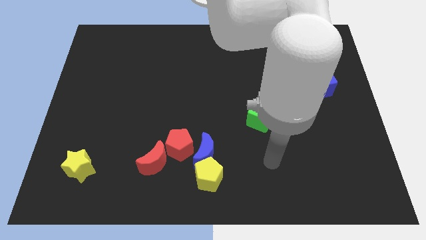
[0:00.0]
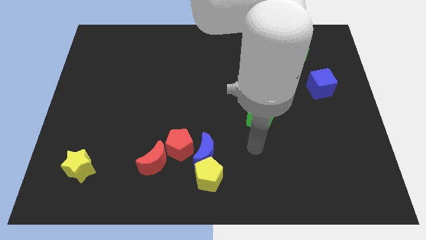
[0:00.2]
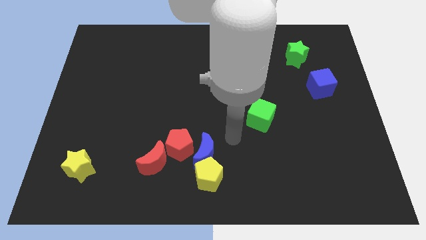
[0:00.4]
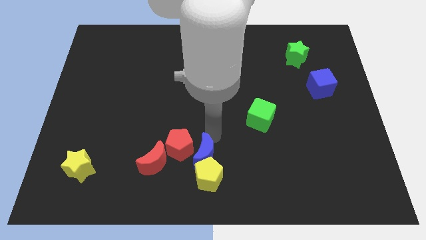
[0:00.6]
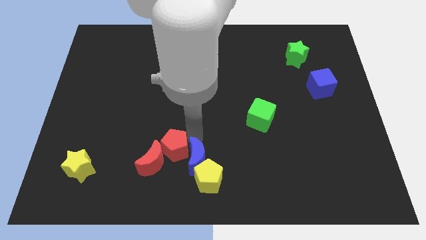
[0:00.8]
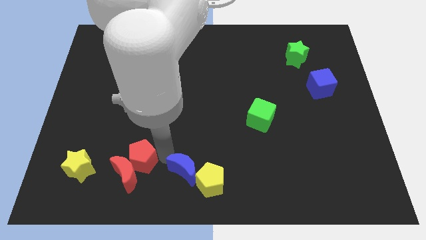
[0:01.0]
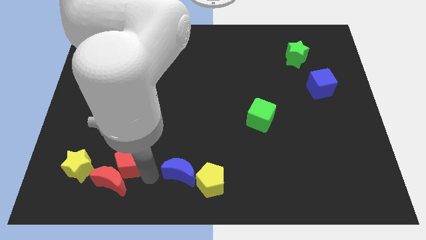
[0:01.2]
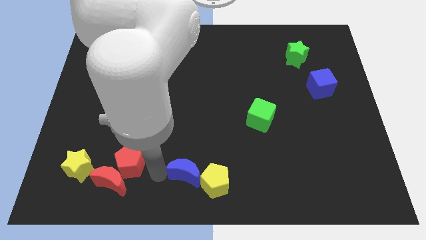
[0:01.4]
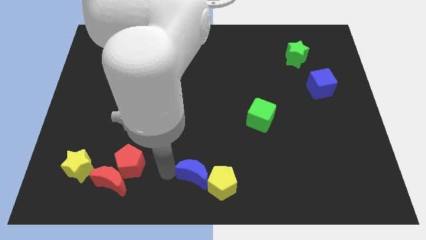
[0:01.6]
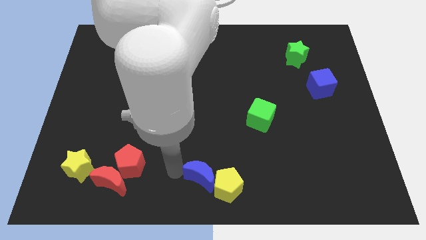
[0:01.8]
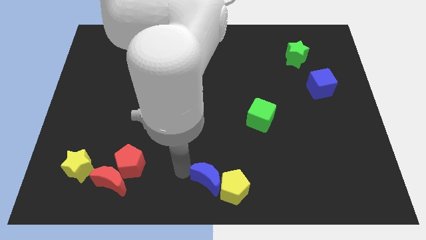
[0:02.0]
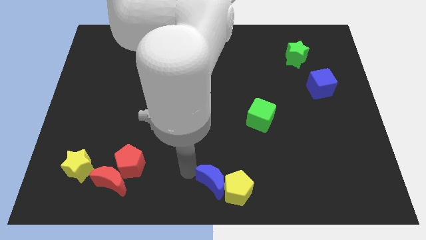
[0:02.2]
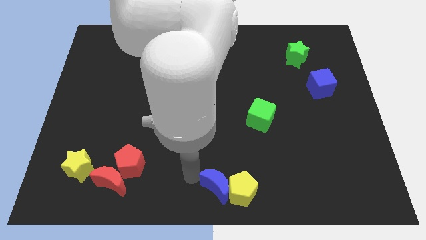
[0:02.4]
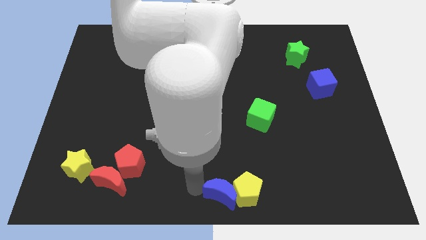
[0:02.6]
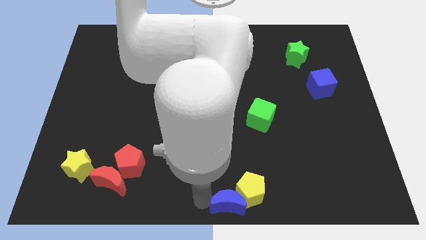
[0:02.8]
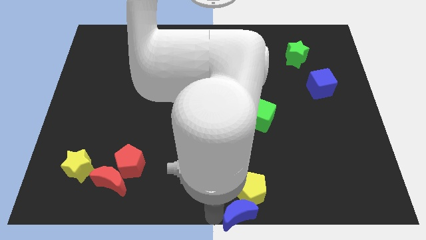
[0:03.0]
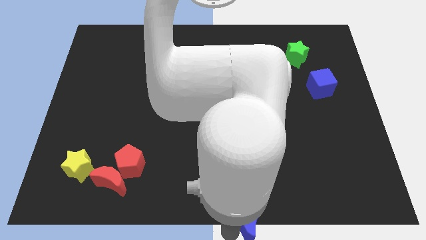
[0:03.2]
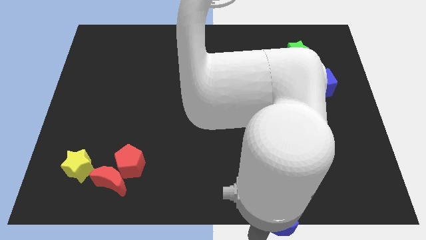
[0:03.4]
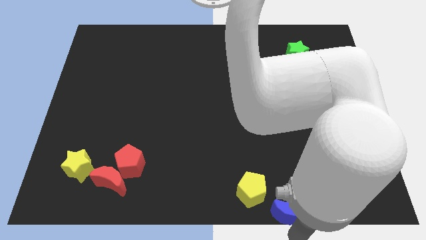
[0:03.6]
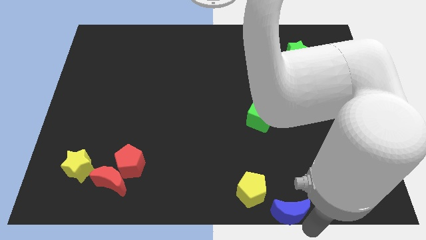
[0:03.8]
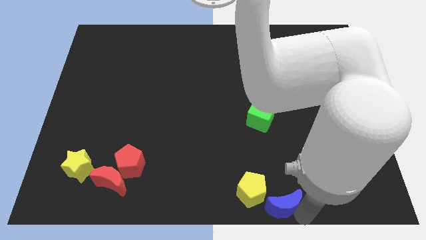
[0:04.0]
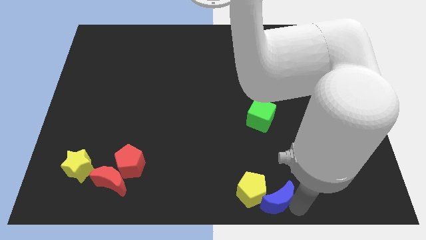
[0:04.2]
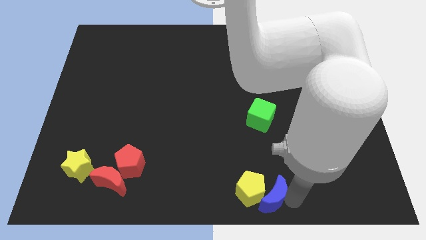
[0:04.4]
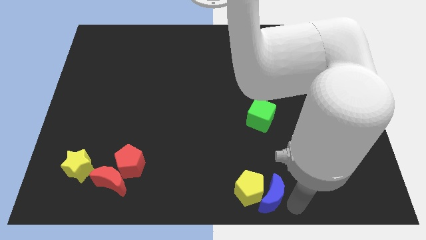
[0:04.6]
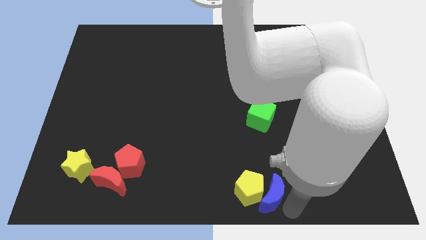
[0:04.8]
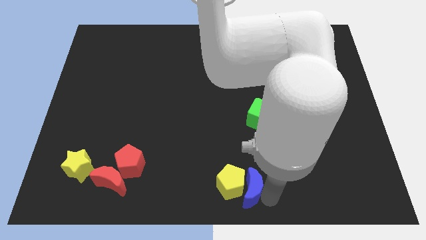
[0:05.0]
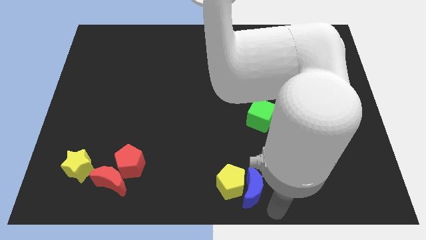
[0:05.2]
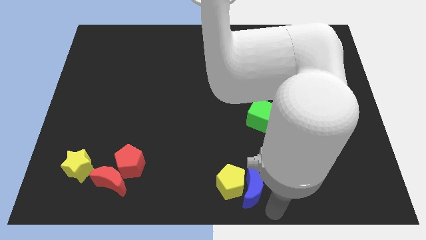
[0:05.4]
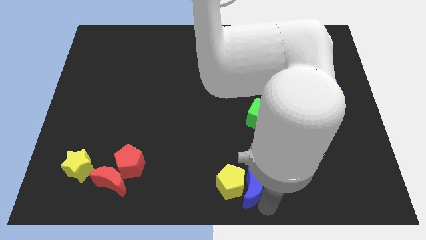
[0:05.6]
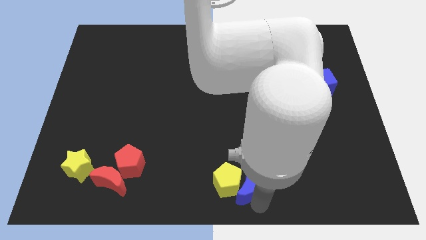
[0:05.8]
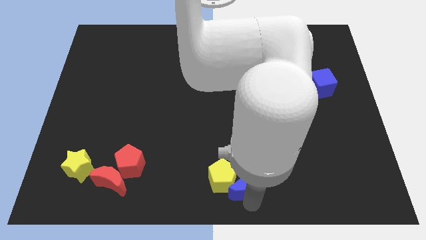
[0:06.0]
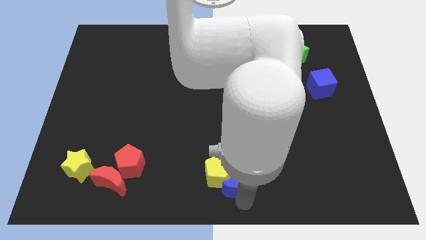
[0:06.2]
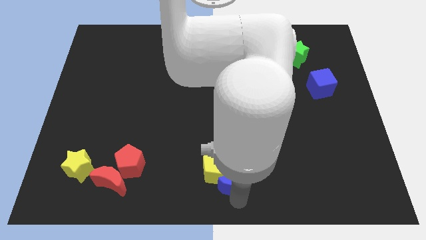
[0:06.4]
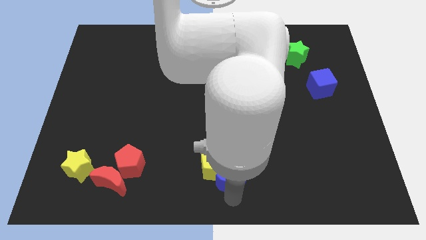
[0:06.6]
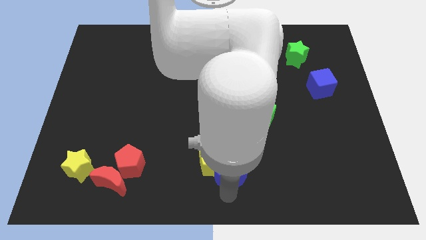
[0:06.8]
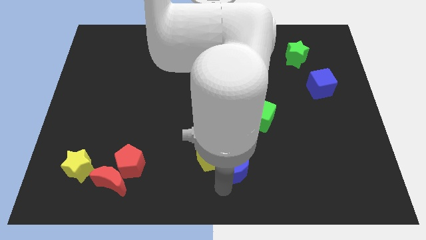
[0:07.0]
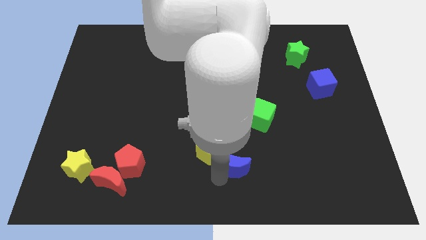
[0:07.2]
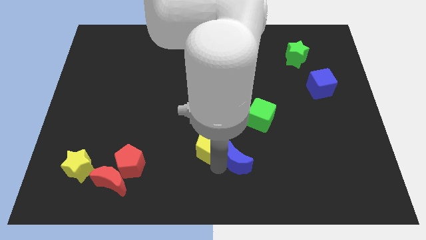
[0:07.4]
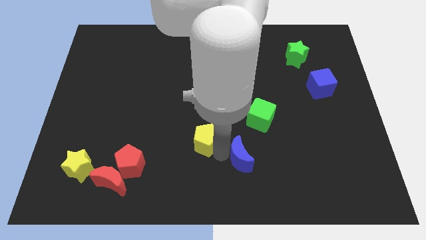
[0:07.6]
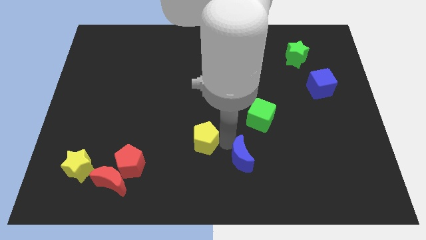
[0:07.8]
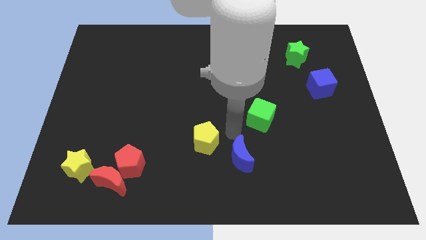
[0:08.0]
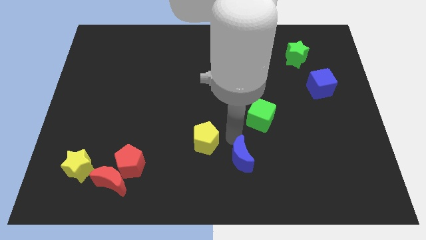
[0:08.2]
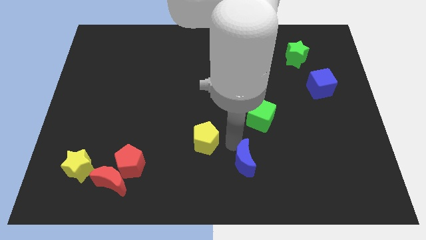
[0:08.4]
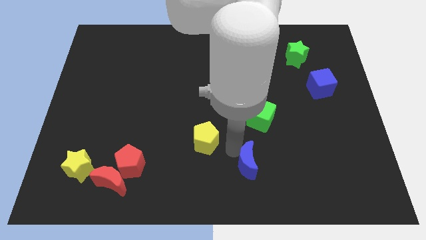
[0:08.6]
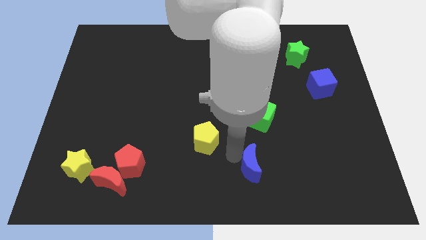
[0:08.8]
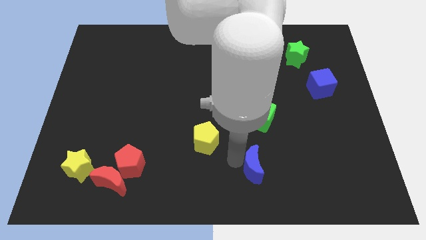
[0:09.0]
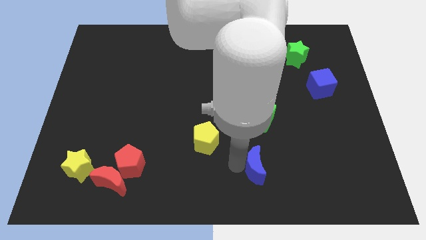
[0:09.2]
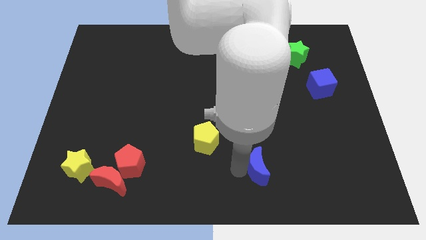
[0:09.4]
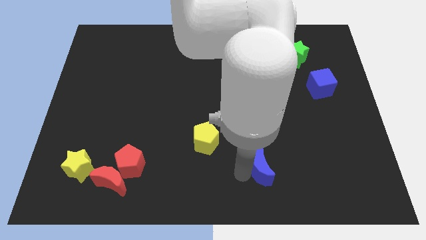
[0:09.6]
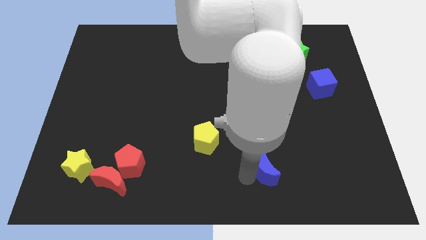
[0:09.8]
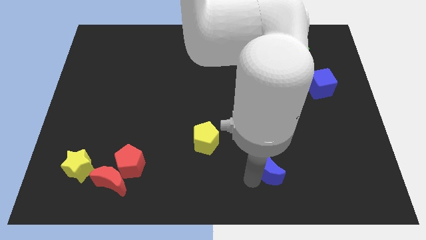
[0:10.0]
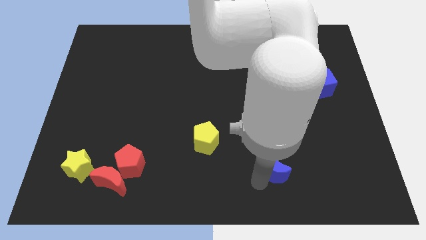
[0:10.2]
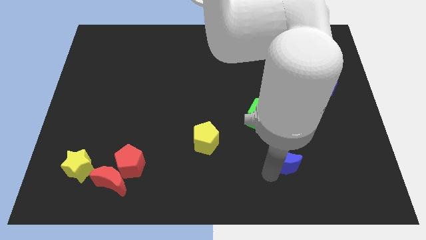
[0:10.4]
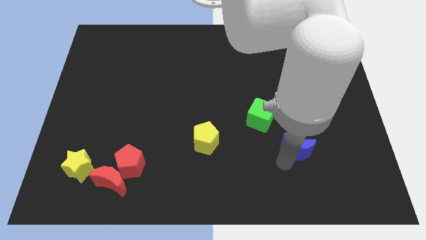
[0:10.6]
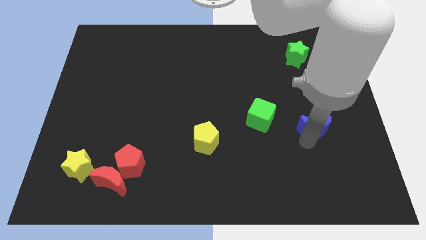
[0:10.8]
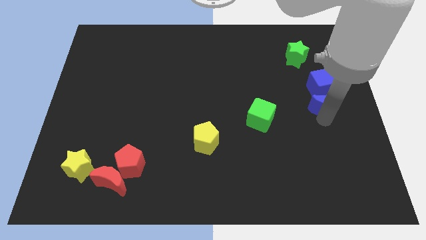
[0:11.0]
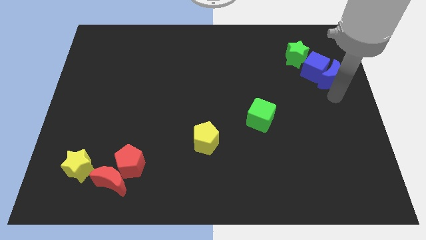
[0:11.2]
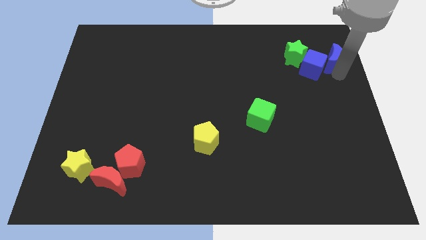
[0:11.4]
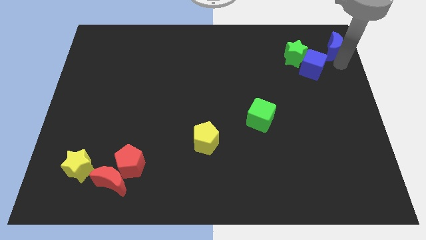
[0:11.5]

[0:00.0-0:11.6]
put the blue moon to the upper right corner

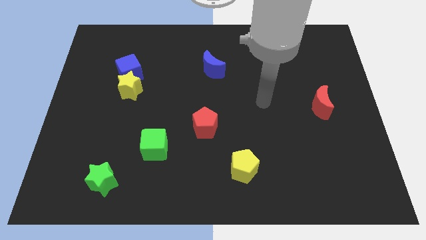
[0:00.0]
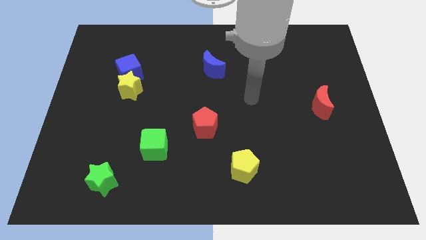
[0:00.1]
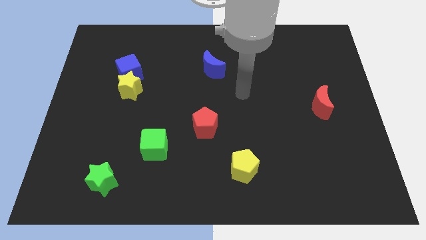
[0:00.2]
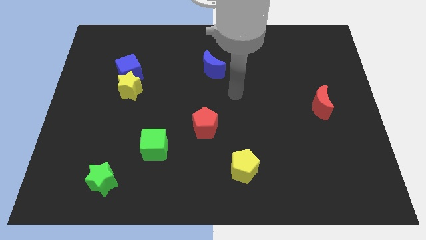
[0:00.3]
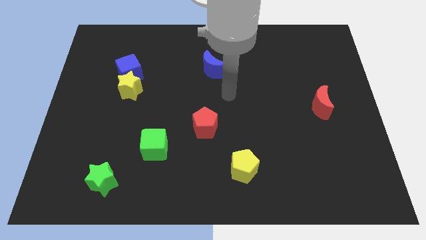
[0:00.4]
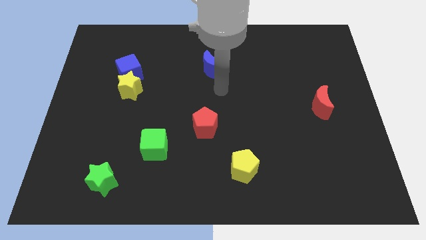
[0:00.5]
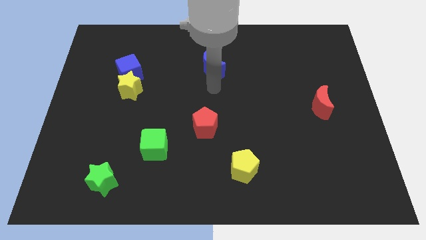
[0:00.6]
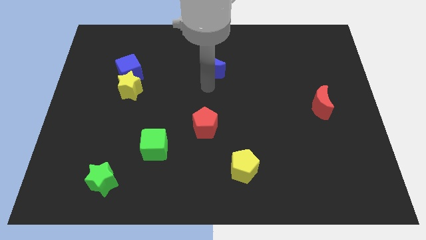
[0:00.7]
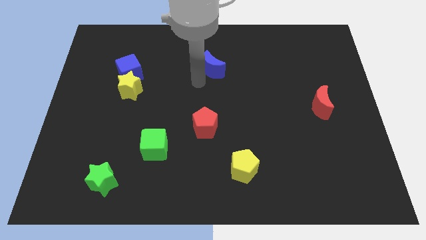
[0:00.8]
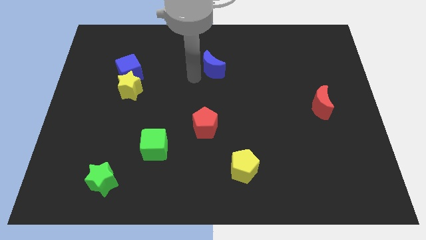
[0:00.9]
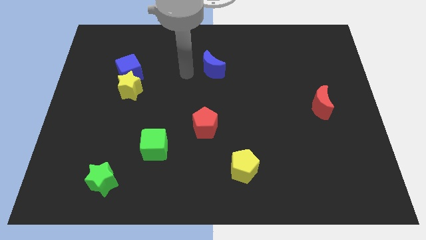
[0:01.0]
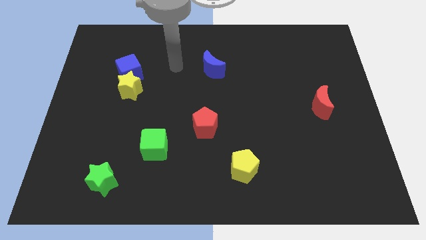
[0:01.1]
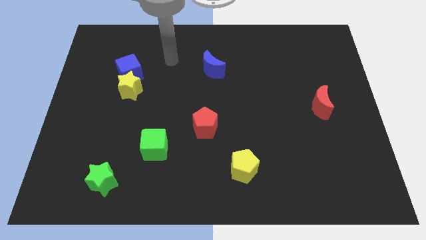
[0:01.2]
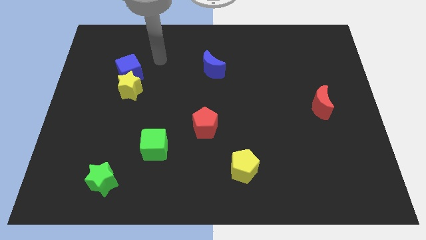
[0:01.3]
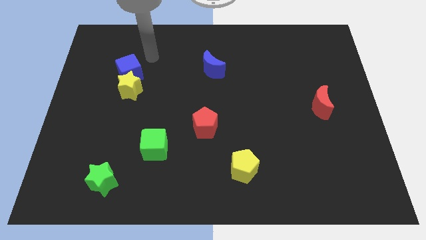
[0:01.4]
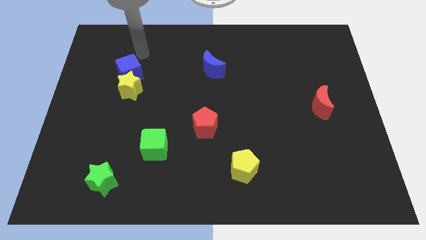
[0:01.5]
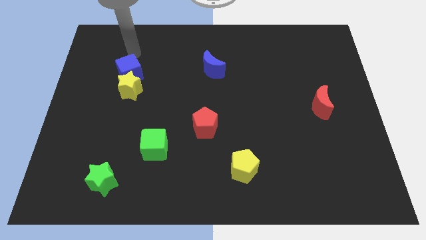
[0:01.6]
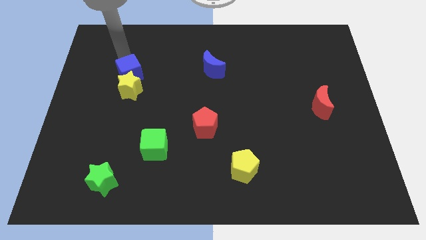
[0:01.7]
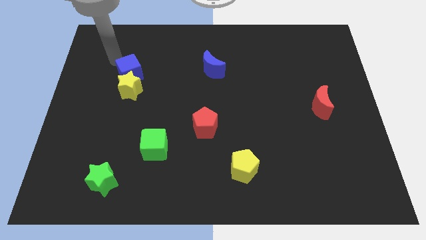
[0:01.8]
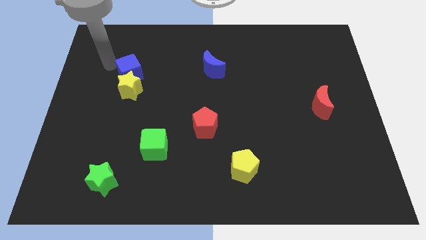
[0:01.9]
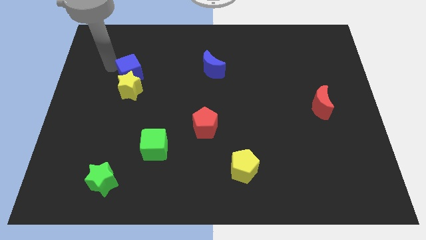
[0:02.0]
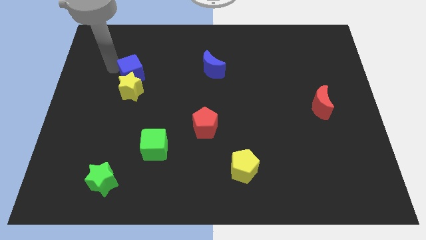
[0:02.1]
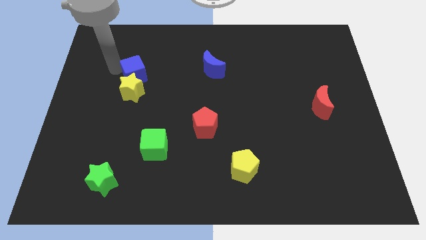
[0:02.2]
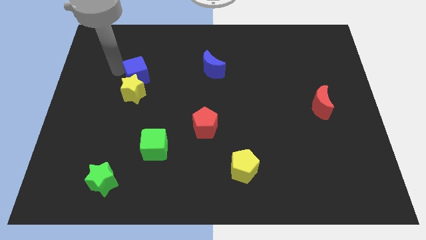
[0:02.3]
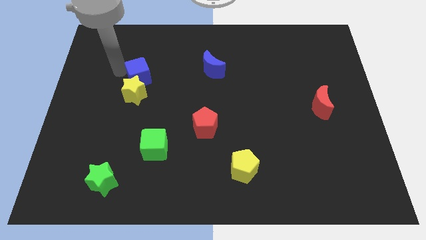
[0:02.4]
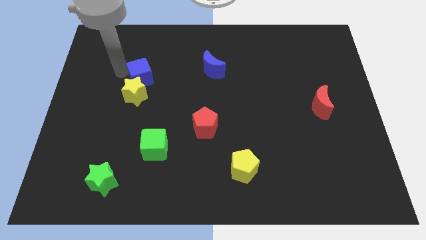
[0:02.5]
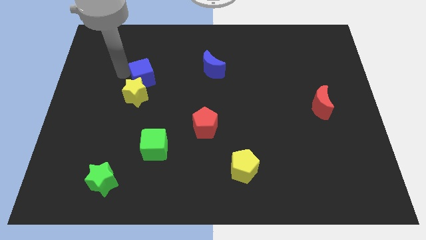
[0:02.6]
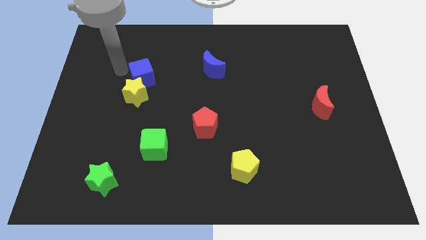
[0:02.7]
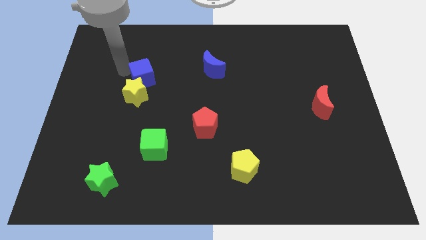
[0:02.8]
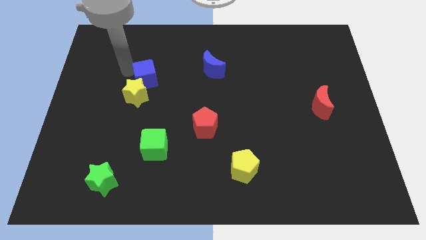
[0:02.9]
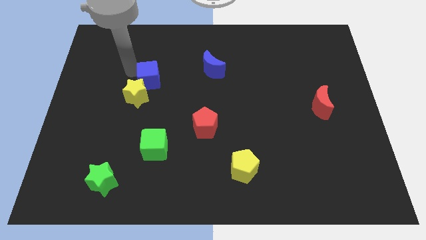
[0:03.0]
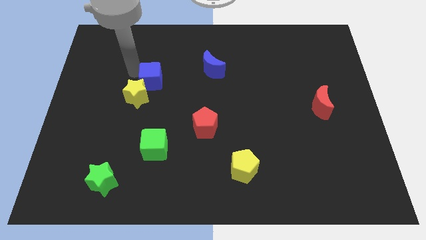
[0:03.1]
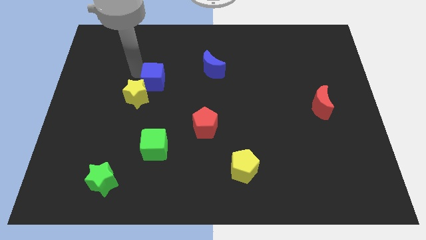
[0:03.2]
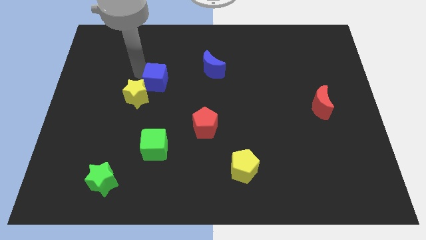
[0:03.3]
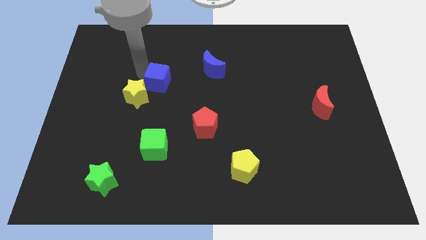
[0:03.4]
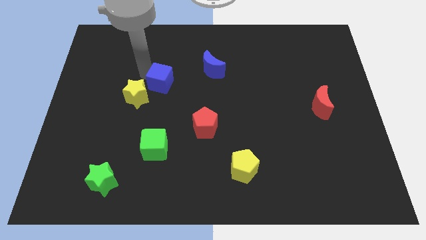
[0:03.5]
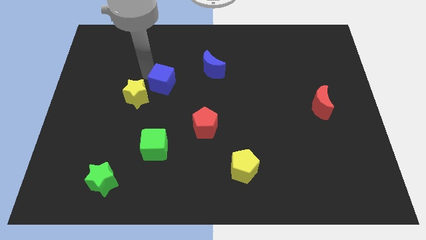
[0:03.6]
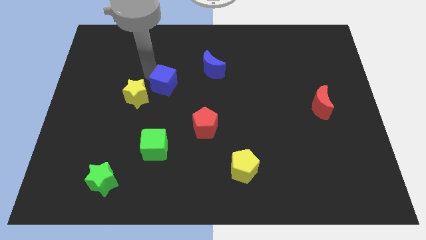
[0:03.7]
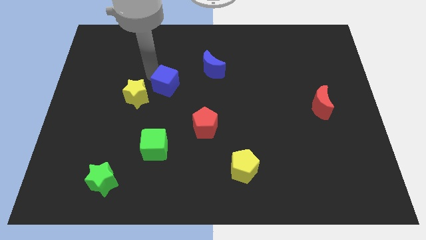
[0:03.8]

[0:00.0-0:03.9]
put the blue cube to the middle of the board
